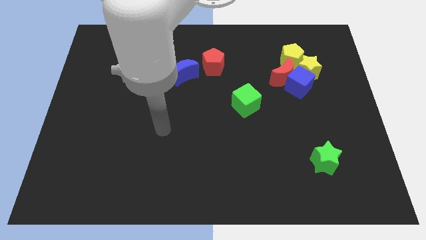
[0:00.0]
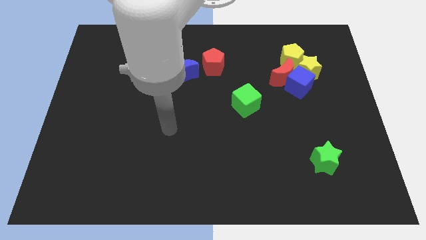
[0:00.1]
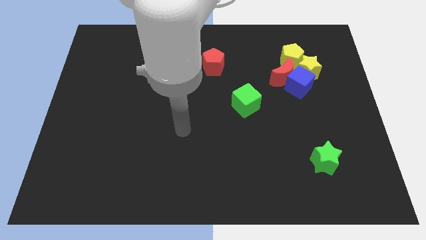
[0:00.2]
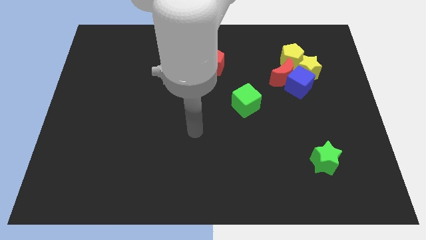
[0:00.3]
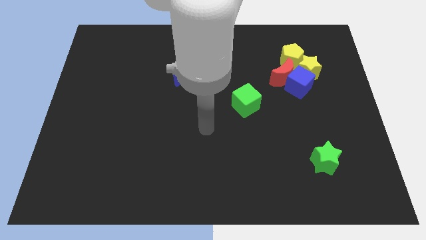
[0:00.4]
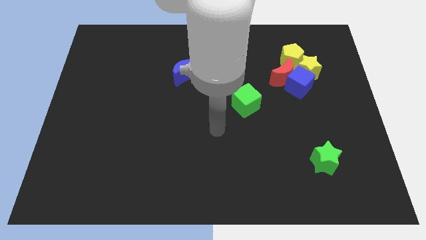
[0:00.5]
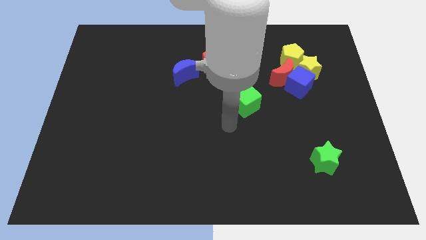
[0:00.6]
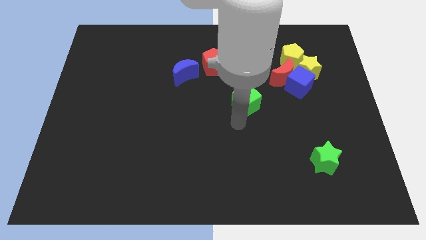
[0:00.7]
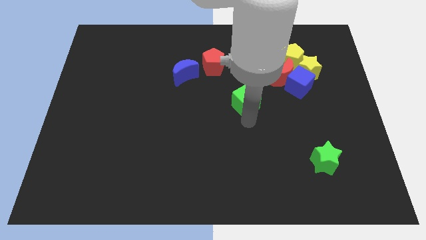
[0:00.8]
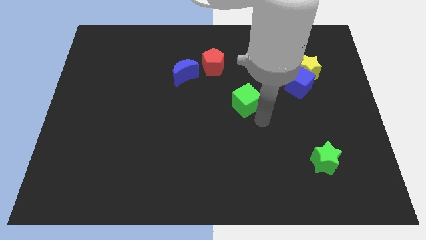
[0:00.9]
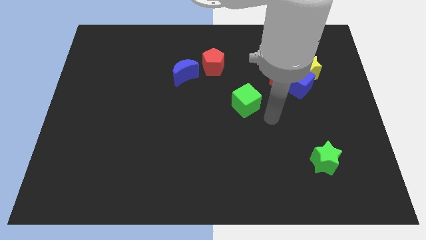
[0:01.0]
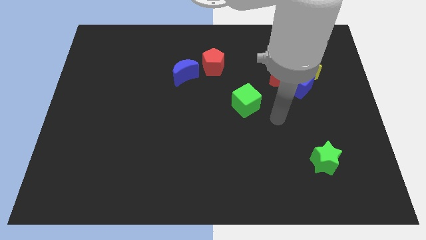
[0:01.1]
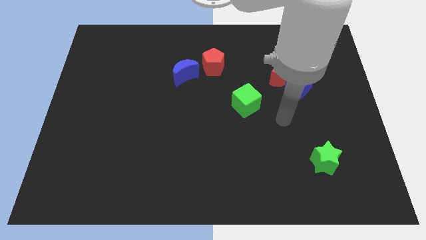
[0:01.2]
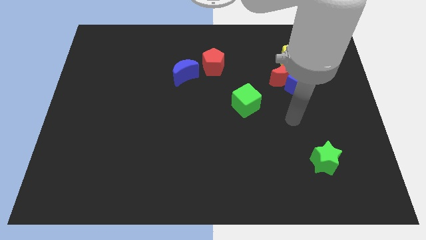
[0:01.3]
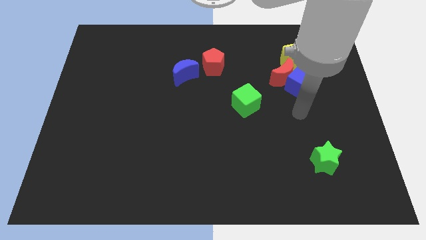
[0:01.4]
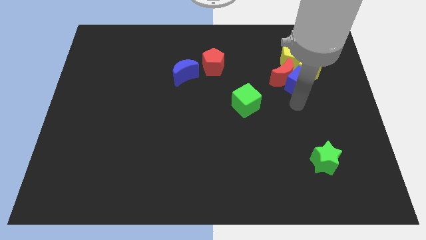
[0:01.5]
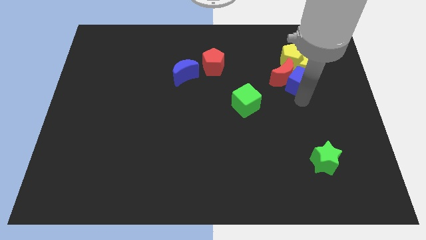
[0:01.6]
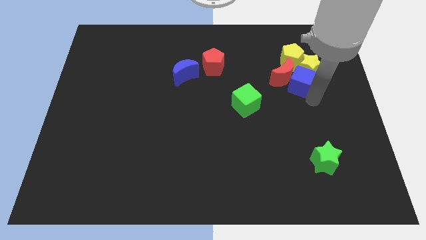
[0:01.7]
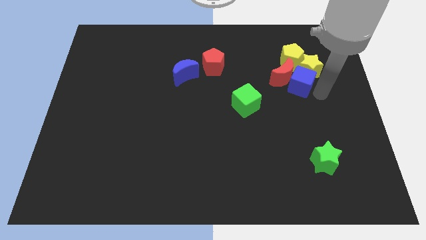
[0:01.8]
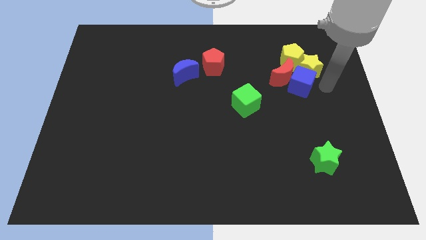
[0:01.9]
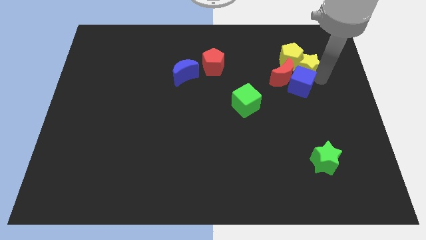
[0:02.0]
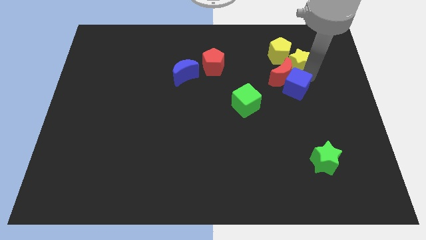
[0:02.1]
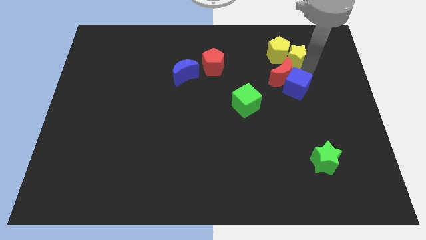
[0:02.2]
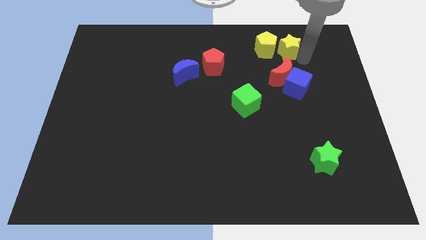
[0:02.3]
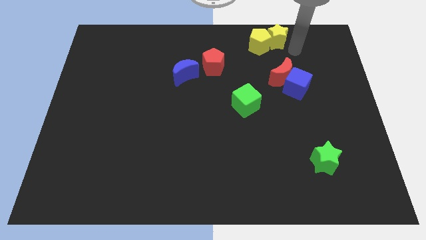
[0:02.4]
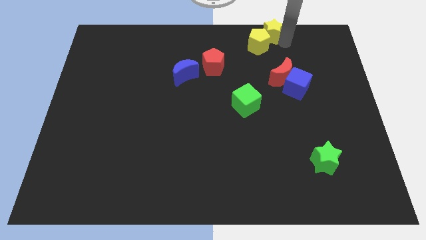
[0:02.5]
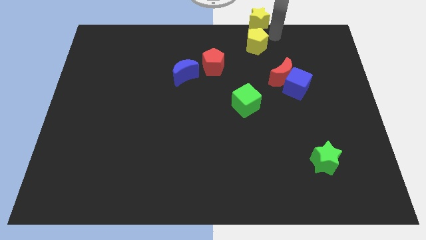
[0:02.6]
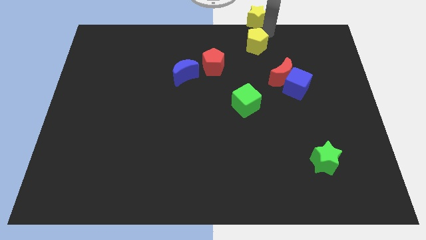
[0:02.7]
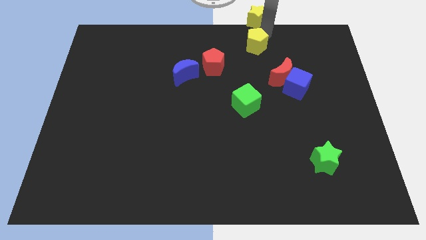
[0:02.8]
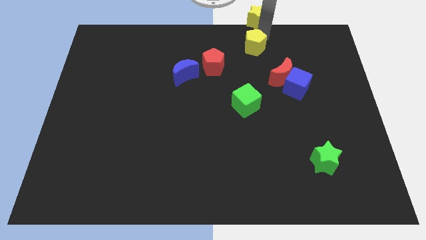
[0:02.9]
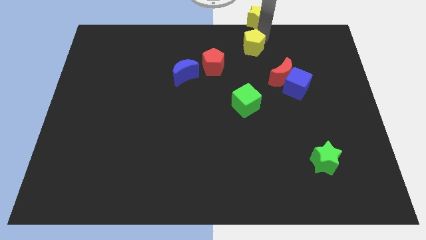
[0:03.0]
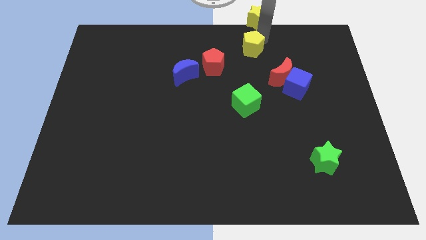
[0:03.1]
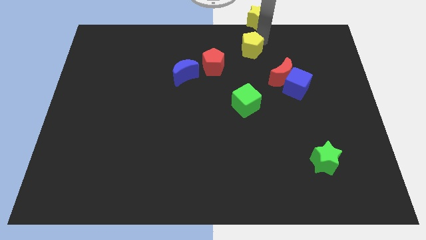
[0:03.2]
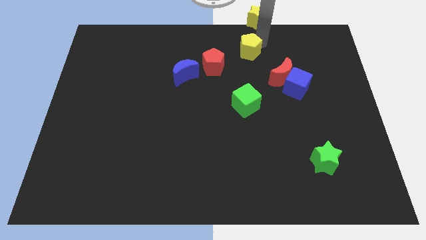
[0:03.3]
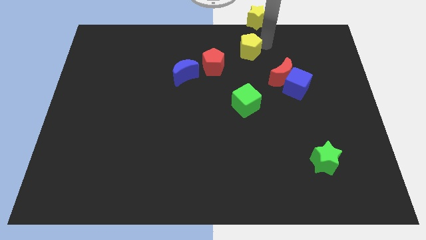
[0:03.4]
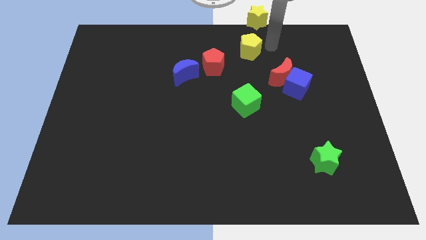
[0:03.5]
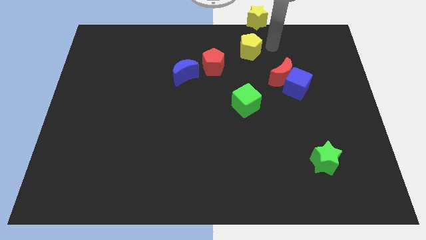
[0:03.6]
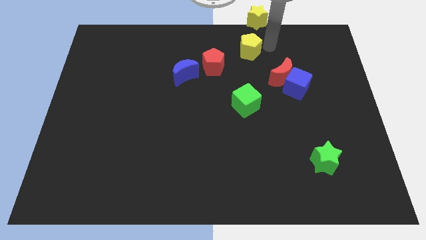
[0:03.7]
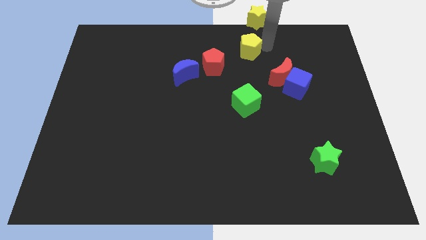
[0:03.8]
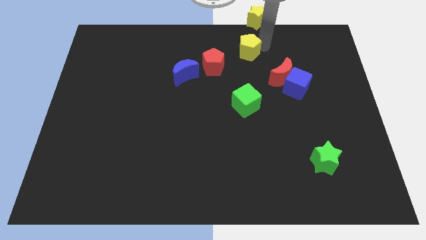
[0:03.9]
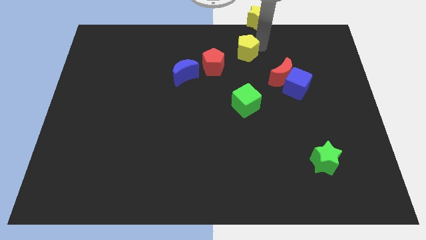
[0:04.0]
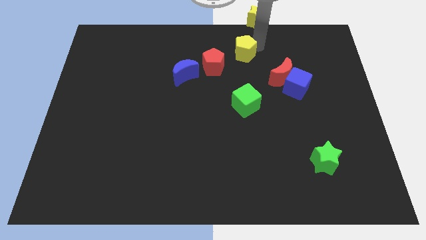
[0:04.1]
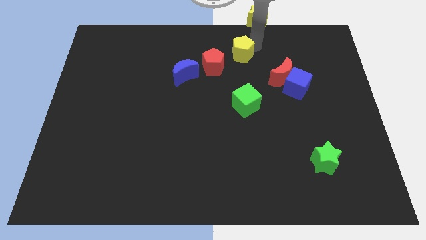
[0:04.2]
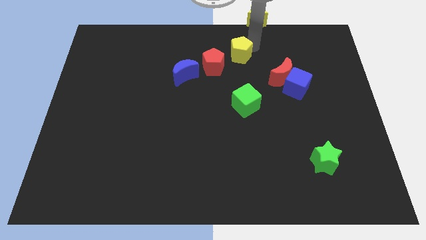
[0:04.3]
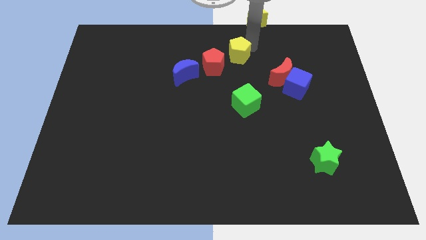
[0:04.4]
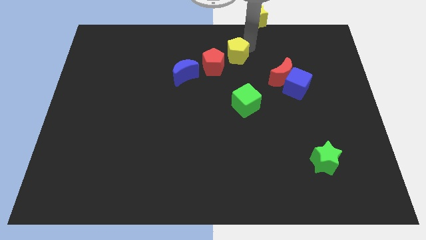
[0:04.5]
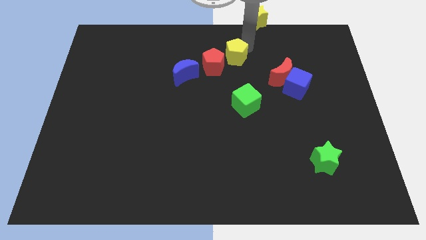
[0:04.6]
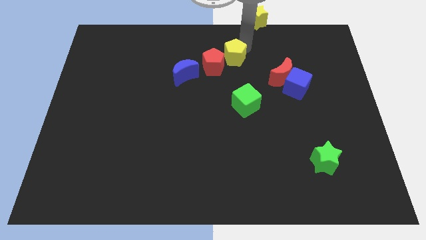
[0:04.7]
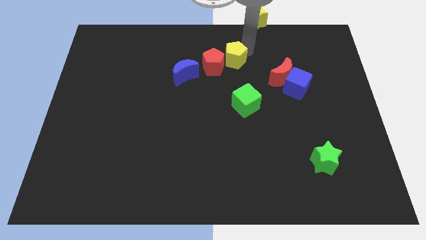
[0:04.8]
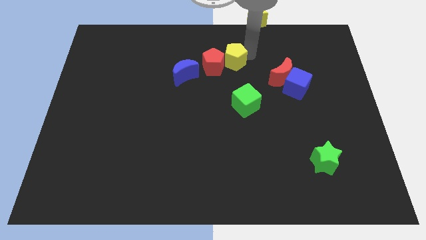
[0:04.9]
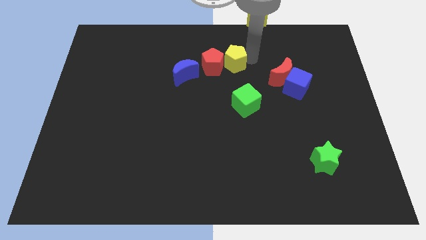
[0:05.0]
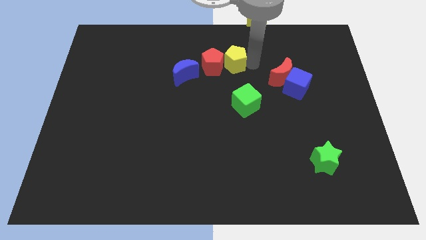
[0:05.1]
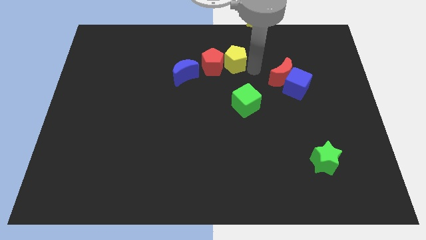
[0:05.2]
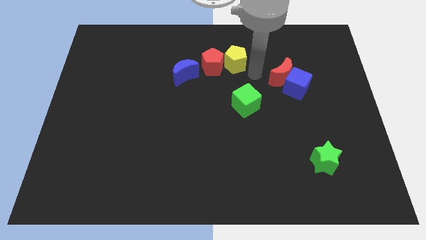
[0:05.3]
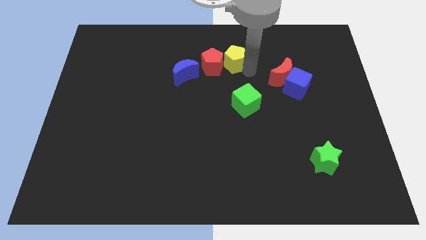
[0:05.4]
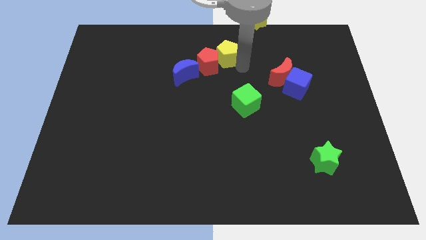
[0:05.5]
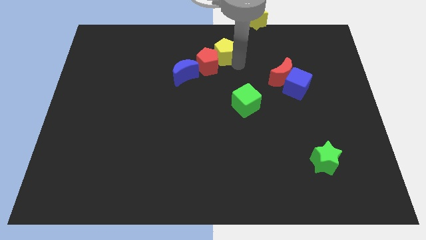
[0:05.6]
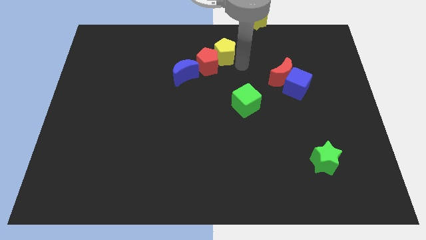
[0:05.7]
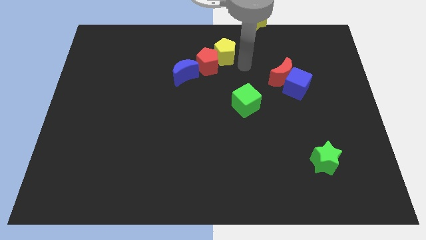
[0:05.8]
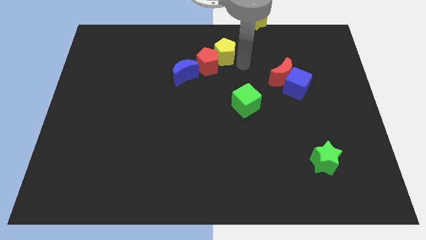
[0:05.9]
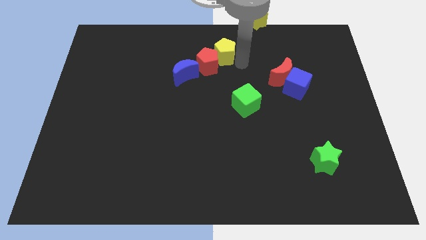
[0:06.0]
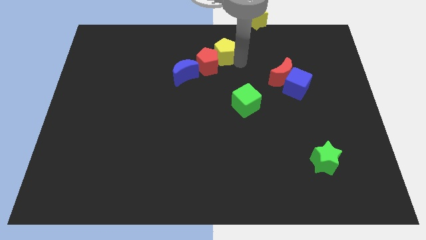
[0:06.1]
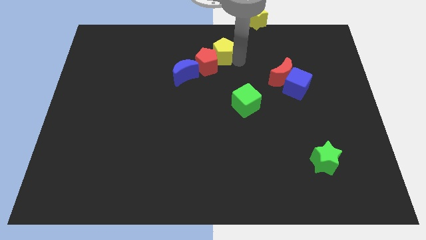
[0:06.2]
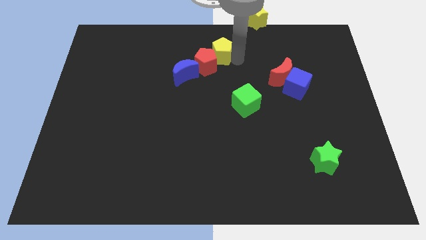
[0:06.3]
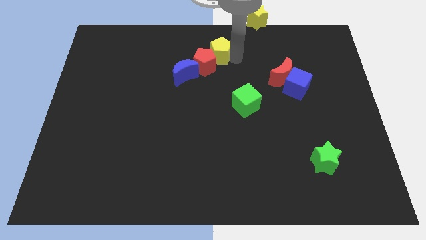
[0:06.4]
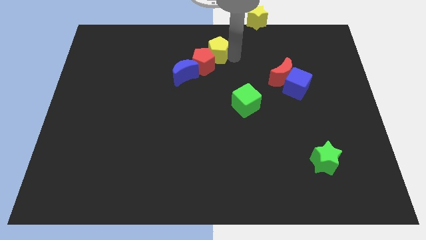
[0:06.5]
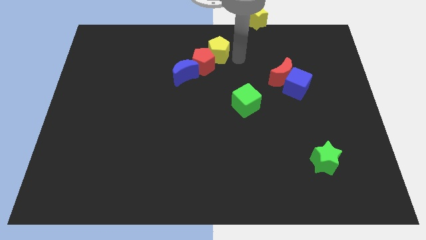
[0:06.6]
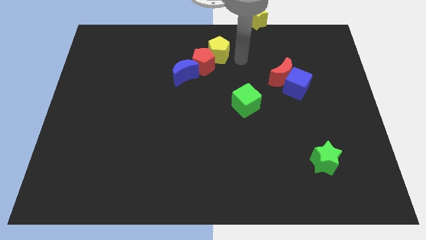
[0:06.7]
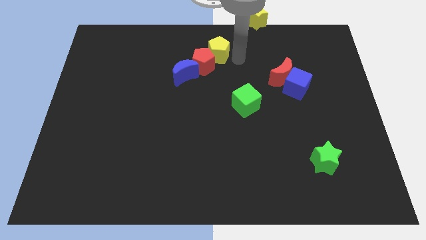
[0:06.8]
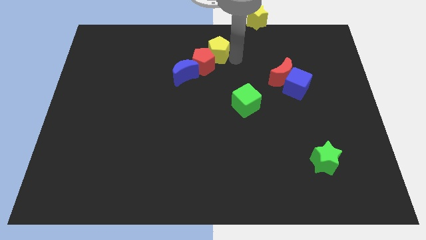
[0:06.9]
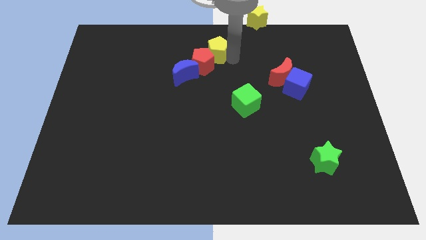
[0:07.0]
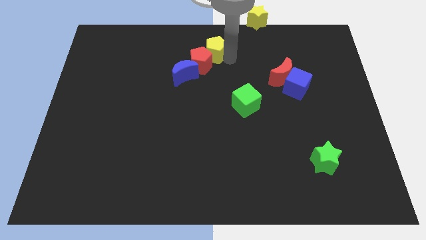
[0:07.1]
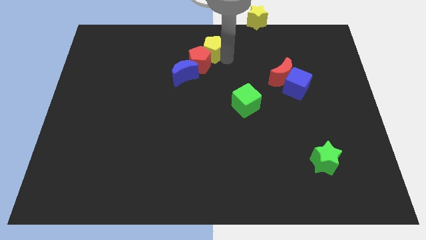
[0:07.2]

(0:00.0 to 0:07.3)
push the yellow pentagon to the left

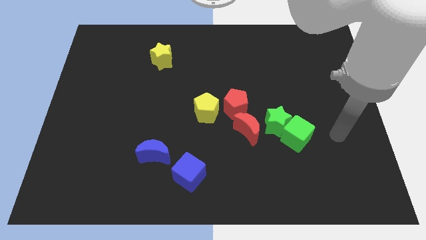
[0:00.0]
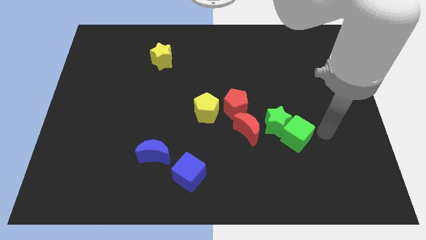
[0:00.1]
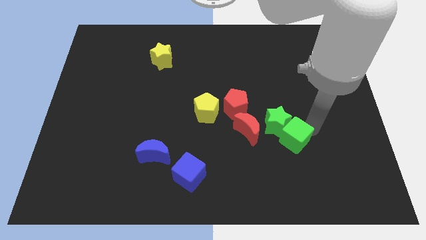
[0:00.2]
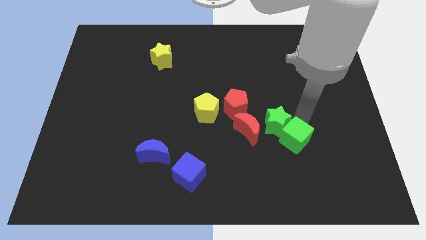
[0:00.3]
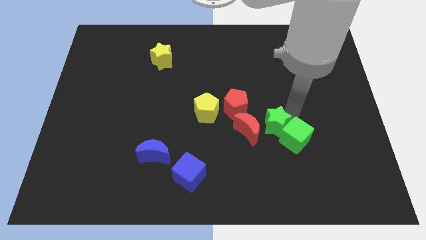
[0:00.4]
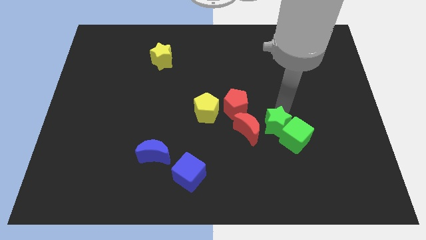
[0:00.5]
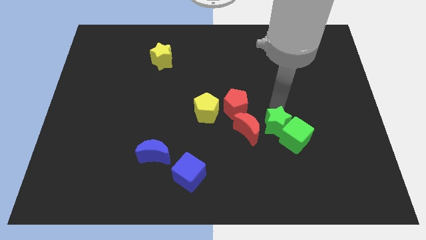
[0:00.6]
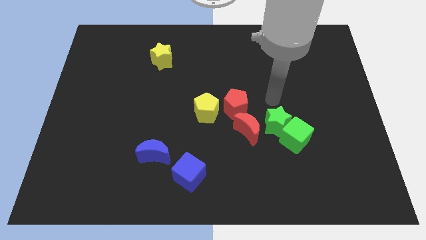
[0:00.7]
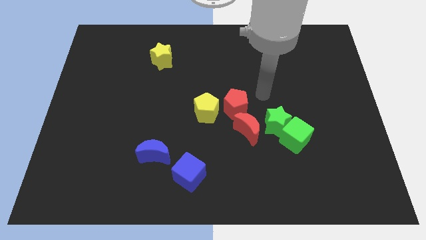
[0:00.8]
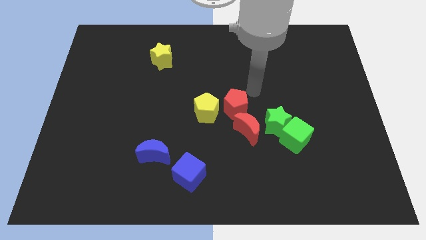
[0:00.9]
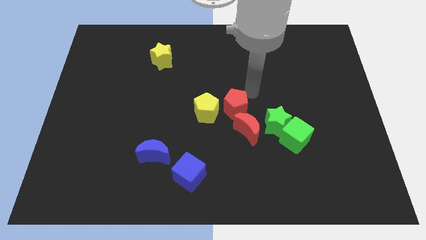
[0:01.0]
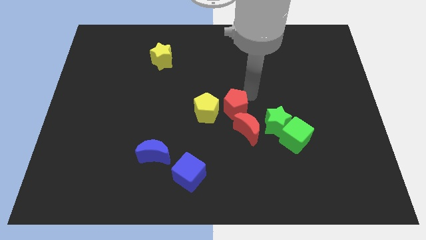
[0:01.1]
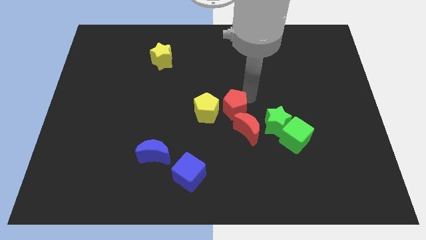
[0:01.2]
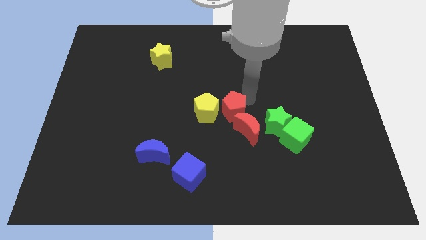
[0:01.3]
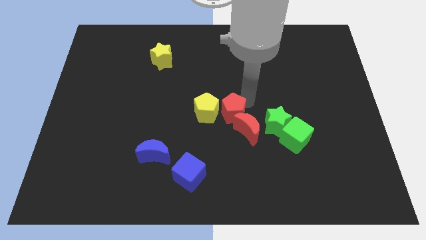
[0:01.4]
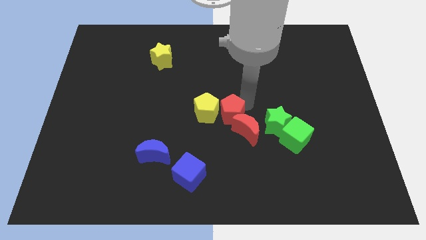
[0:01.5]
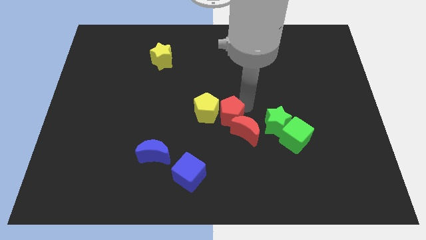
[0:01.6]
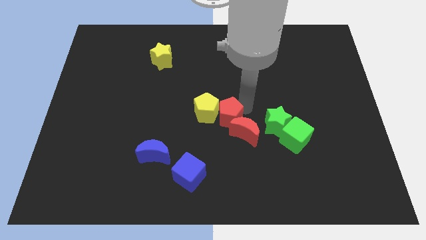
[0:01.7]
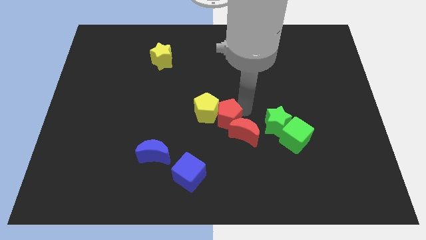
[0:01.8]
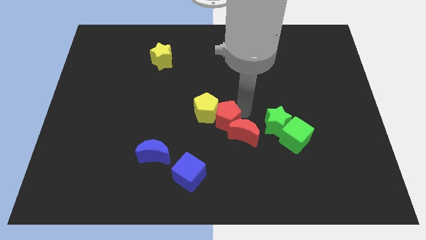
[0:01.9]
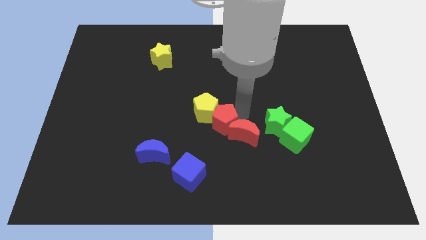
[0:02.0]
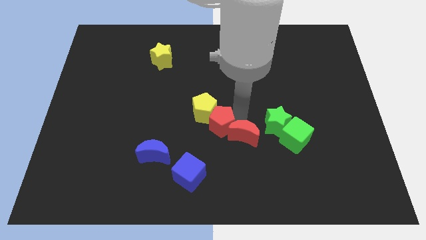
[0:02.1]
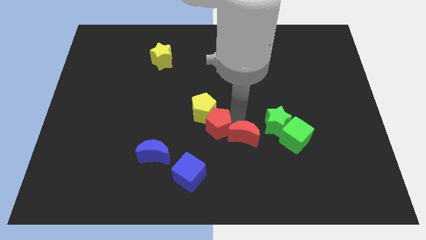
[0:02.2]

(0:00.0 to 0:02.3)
move the red pentagon diagonally downwards and left a little bit
